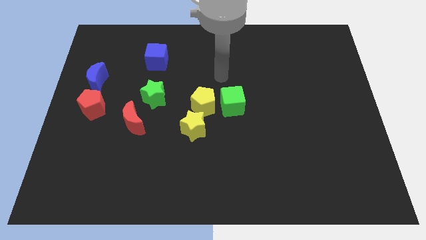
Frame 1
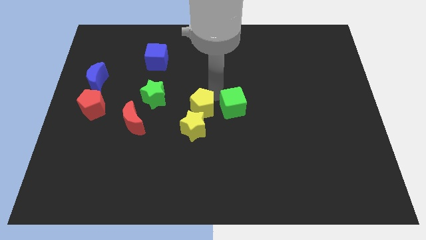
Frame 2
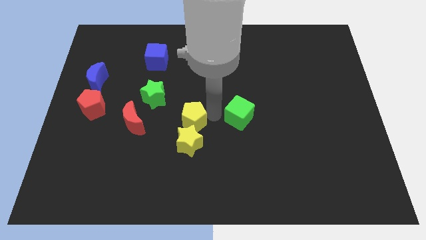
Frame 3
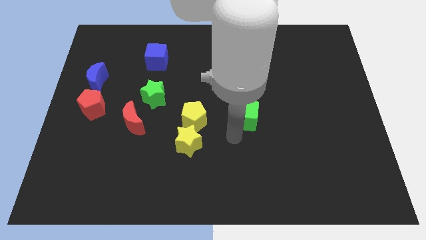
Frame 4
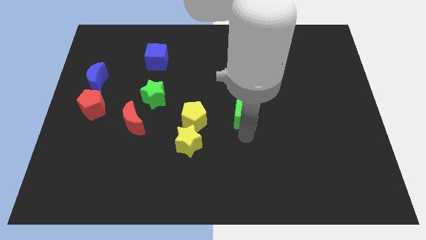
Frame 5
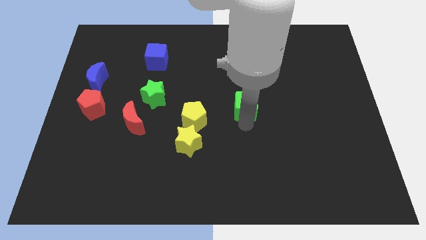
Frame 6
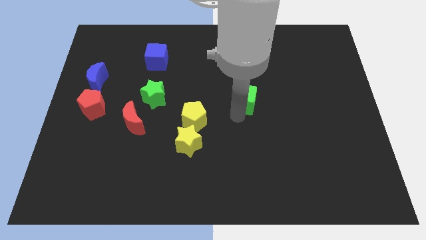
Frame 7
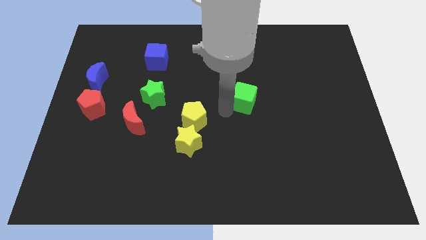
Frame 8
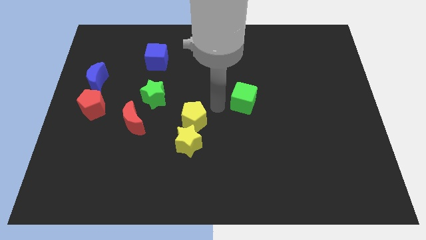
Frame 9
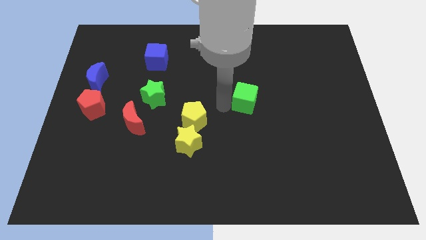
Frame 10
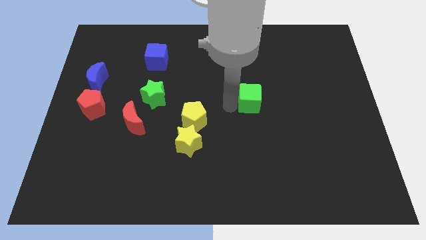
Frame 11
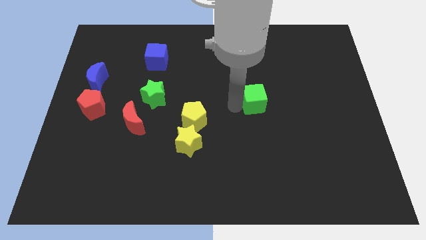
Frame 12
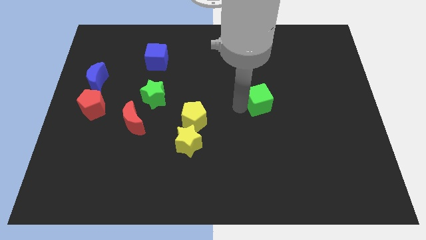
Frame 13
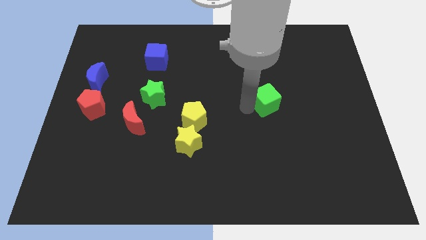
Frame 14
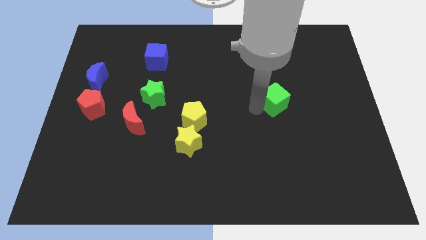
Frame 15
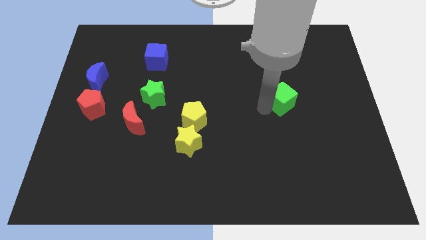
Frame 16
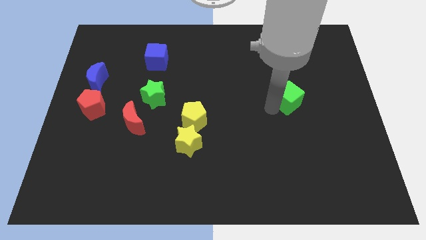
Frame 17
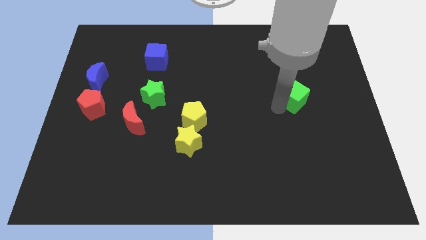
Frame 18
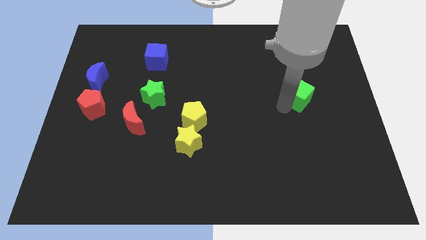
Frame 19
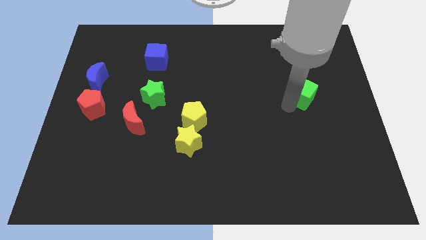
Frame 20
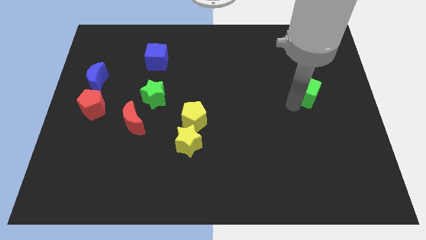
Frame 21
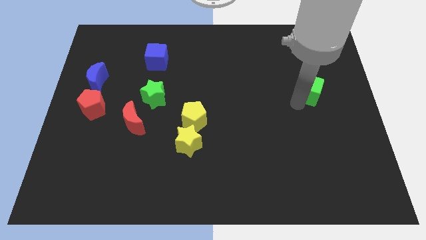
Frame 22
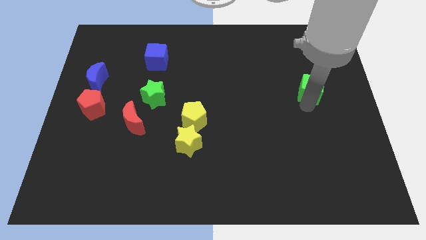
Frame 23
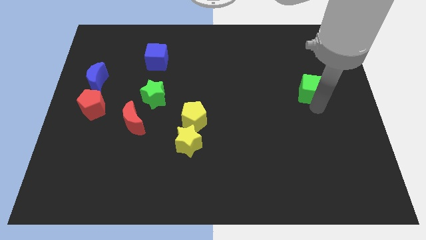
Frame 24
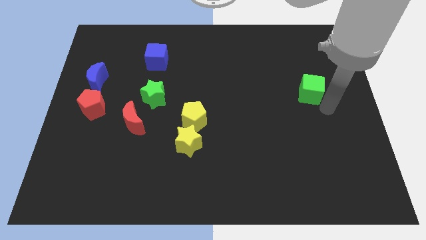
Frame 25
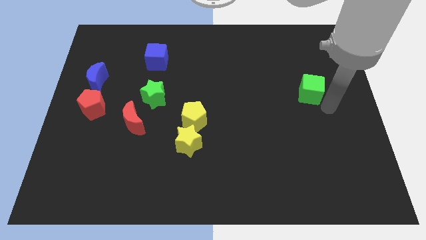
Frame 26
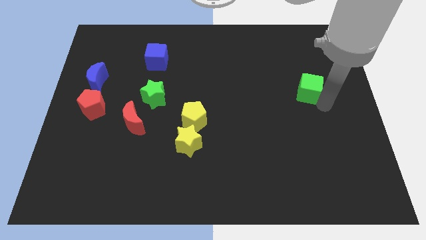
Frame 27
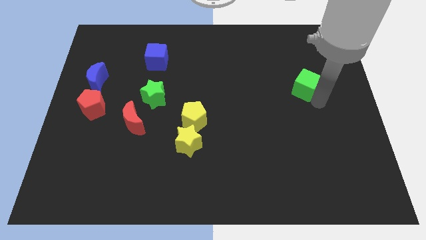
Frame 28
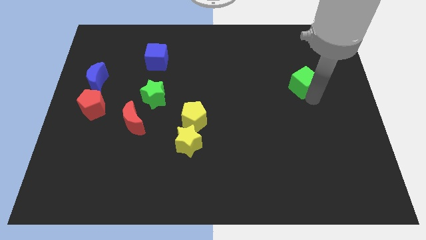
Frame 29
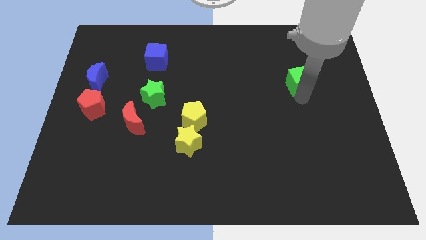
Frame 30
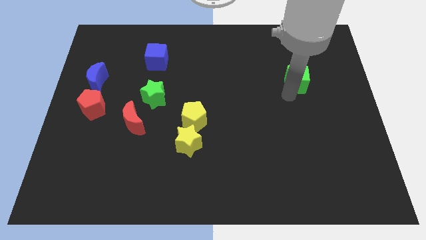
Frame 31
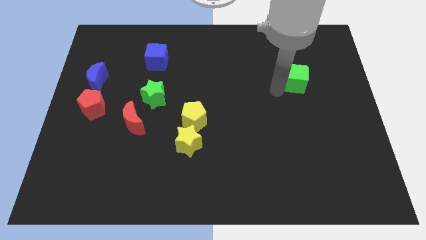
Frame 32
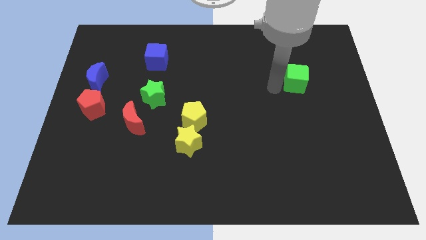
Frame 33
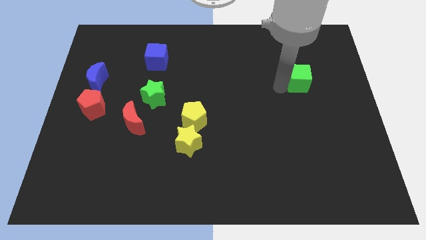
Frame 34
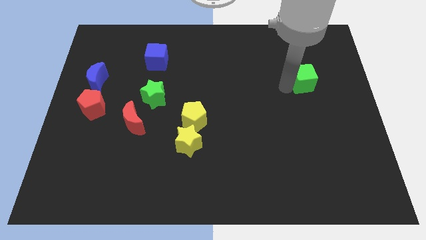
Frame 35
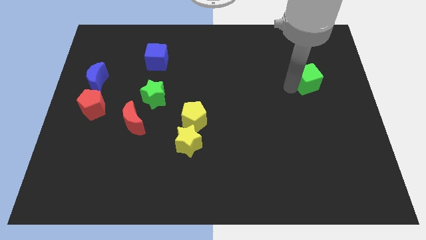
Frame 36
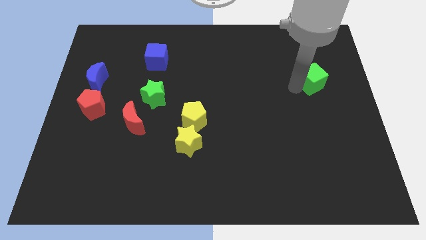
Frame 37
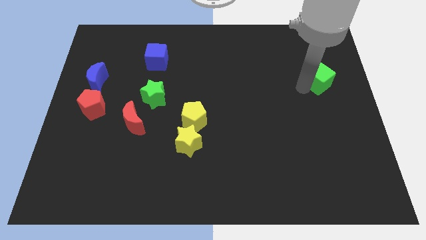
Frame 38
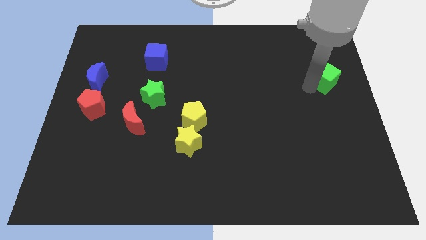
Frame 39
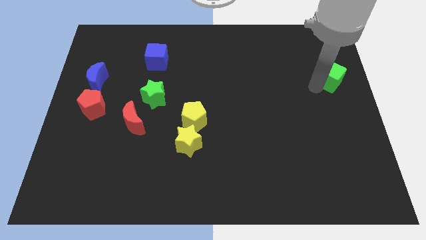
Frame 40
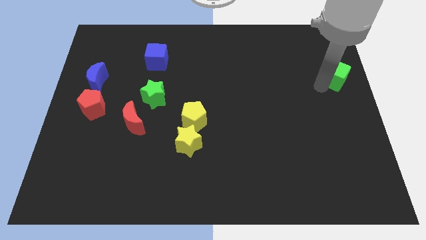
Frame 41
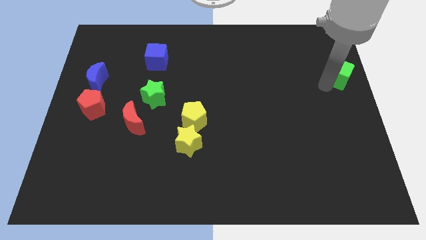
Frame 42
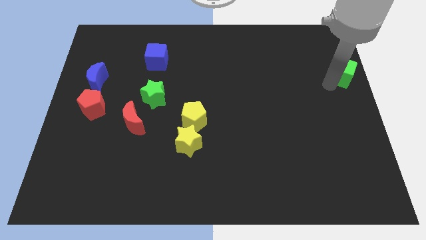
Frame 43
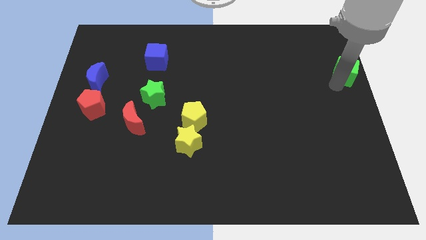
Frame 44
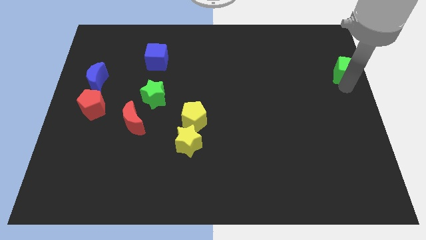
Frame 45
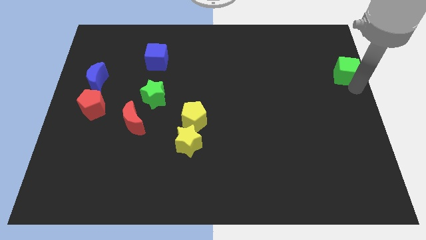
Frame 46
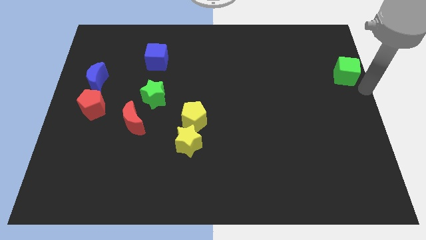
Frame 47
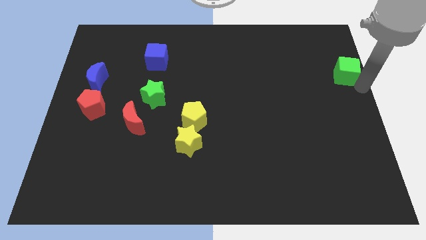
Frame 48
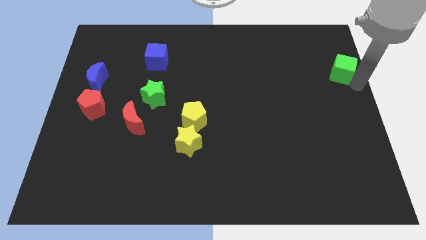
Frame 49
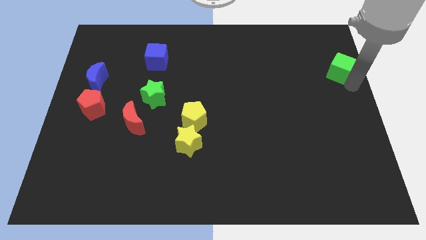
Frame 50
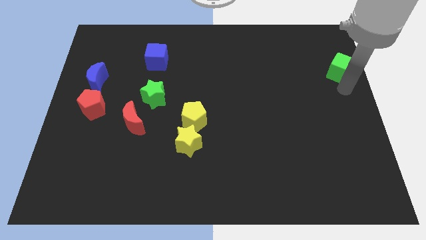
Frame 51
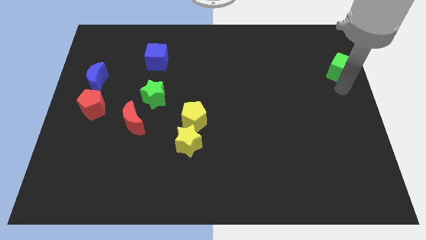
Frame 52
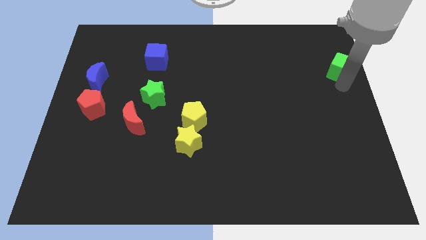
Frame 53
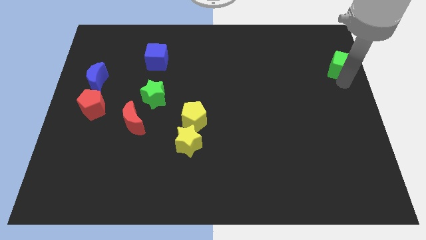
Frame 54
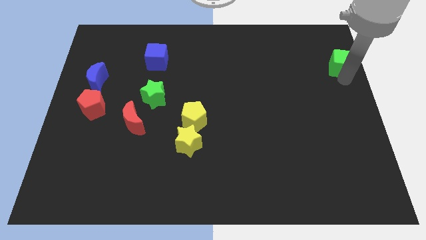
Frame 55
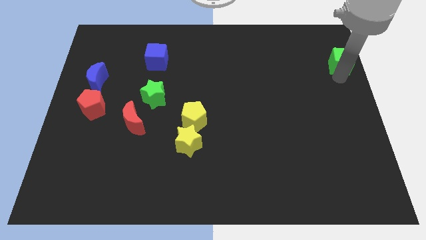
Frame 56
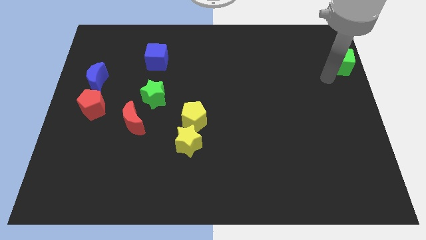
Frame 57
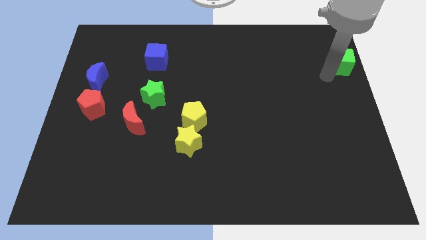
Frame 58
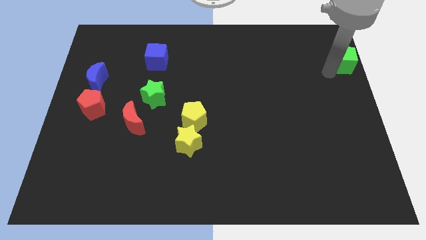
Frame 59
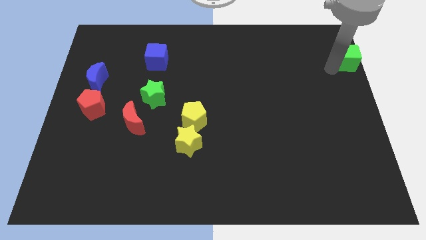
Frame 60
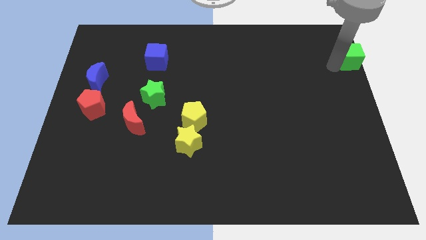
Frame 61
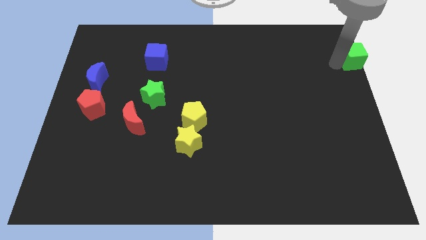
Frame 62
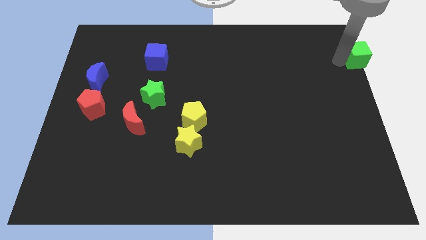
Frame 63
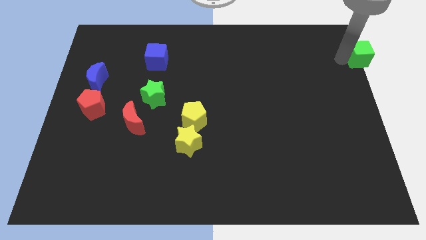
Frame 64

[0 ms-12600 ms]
put the green cube to the top right
